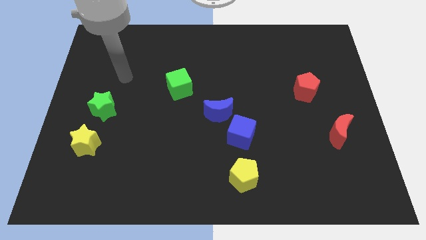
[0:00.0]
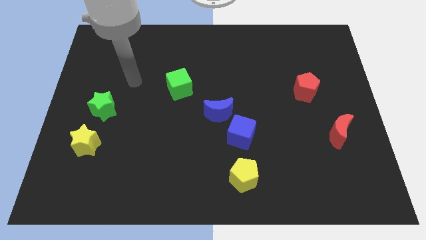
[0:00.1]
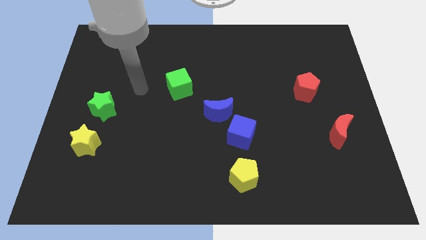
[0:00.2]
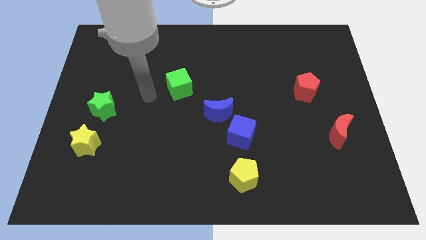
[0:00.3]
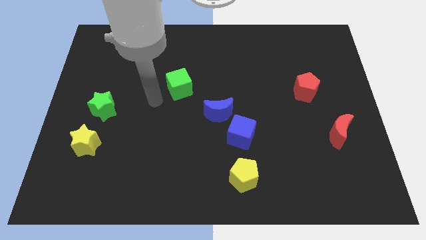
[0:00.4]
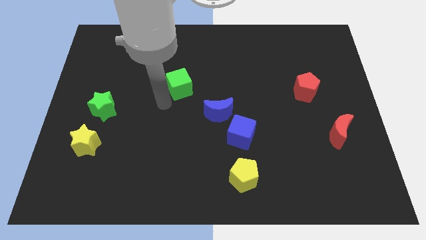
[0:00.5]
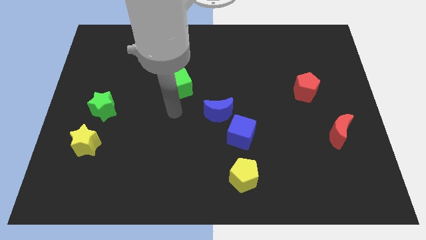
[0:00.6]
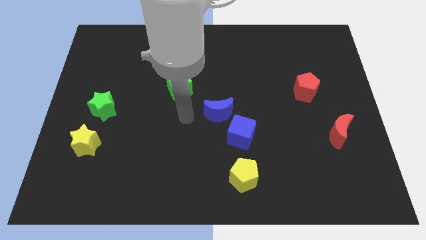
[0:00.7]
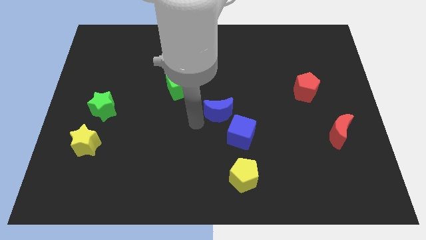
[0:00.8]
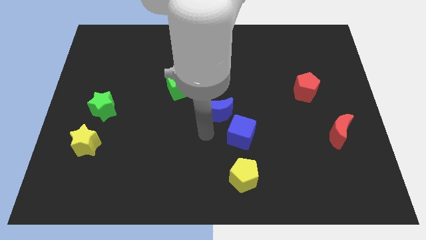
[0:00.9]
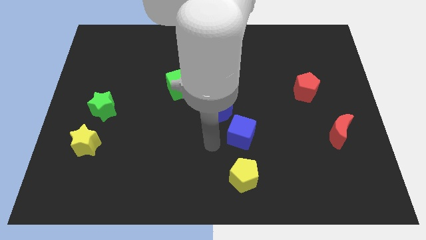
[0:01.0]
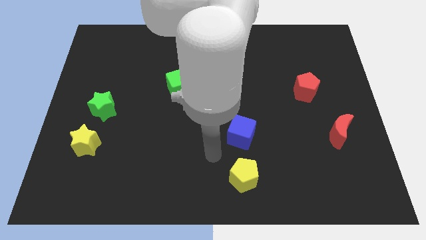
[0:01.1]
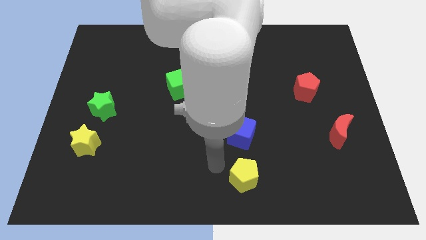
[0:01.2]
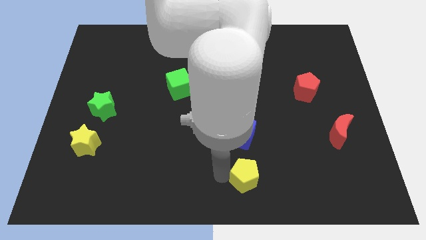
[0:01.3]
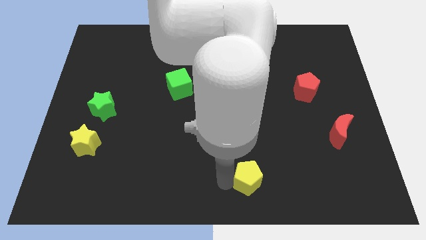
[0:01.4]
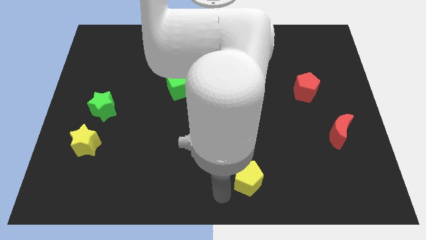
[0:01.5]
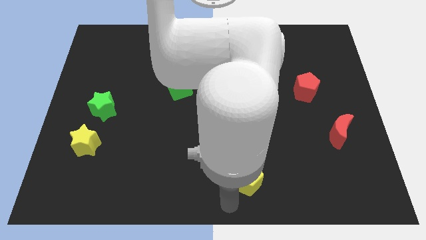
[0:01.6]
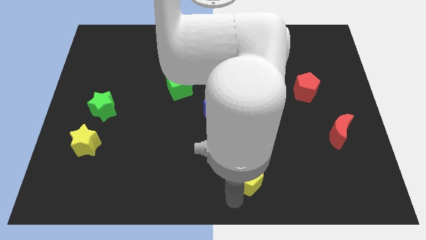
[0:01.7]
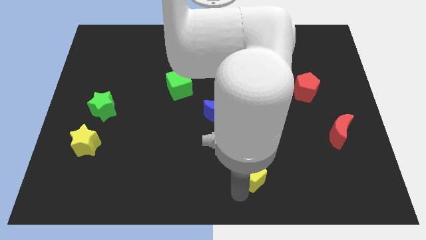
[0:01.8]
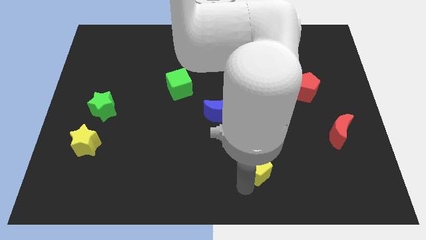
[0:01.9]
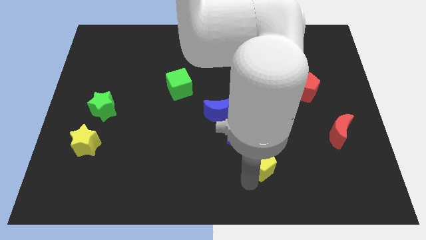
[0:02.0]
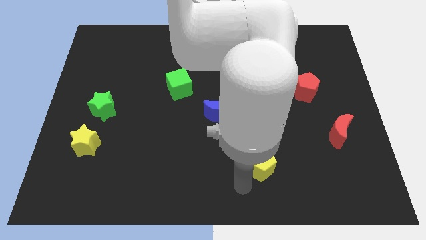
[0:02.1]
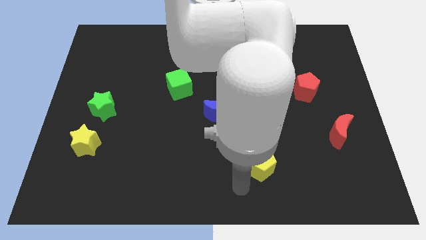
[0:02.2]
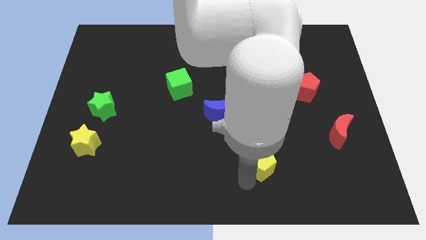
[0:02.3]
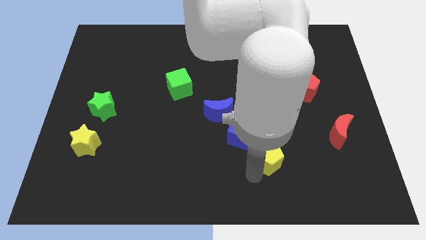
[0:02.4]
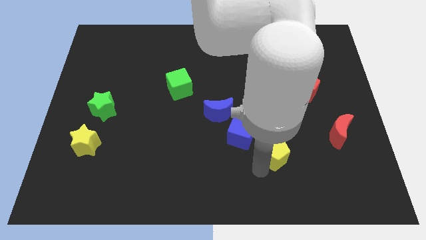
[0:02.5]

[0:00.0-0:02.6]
move the yellow pentagon slightly upwards and then right

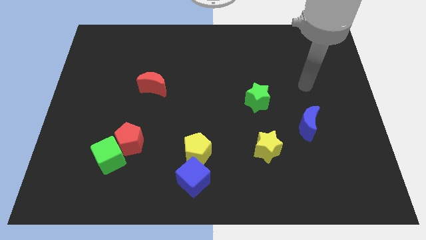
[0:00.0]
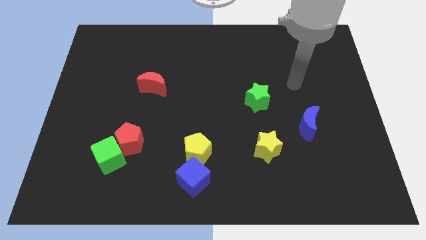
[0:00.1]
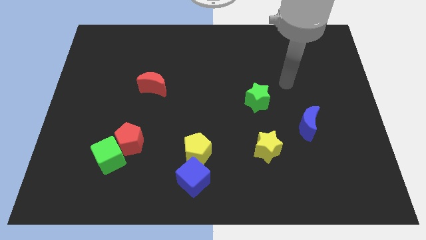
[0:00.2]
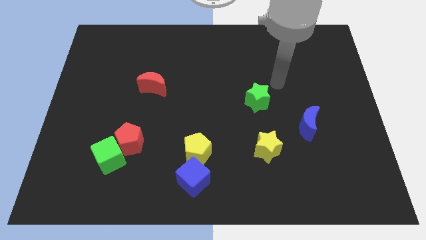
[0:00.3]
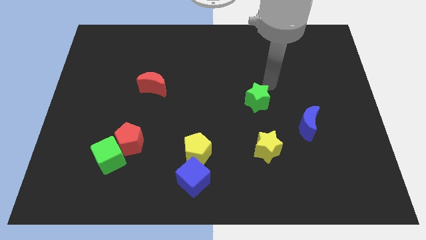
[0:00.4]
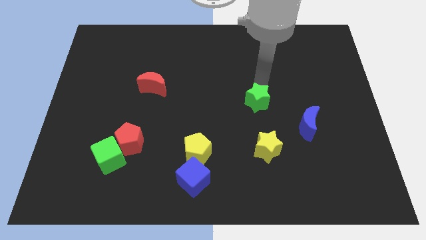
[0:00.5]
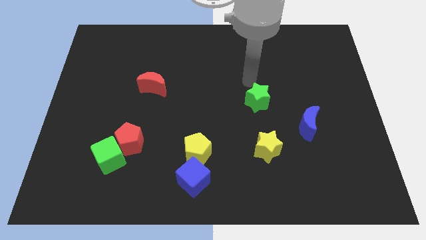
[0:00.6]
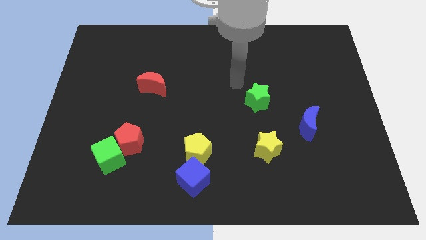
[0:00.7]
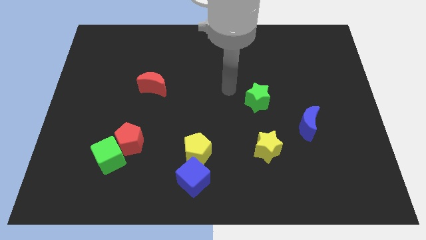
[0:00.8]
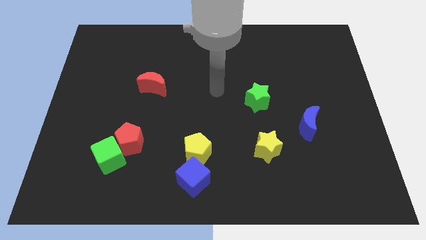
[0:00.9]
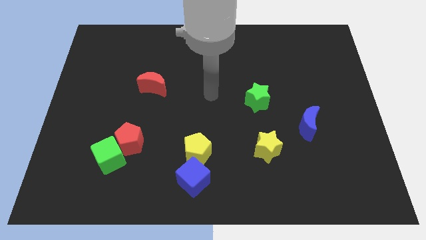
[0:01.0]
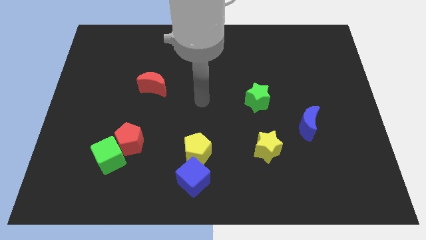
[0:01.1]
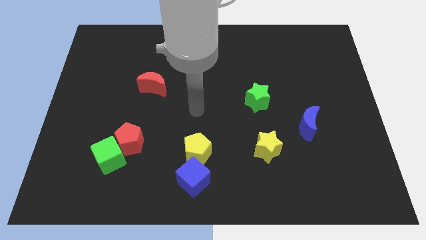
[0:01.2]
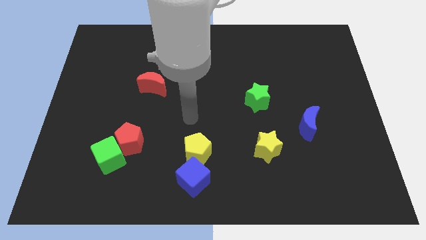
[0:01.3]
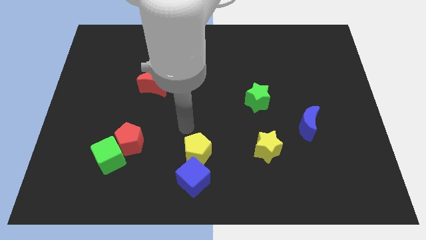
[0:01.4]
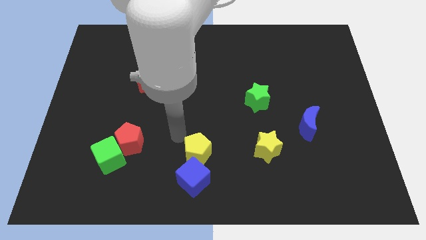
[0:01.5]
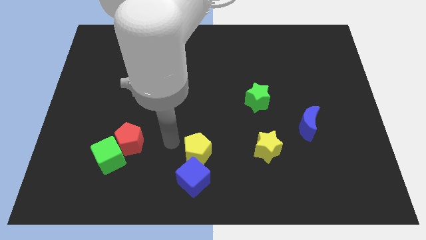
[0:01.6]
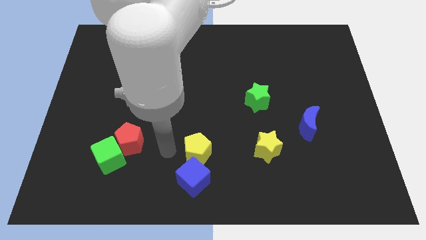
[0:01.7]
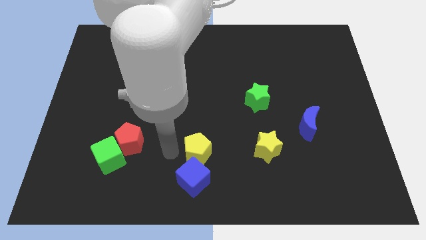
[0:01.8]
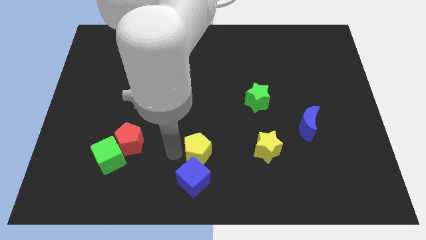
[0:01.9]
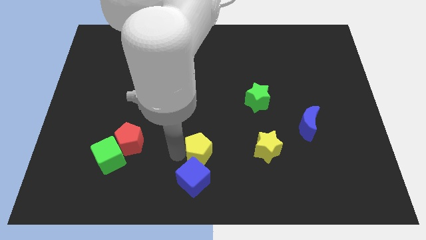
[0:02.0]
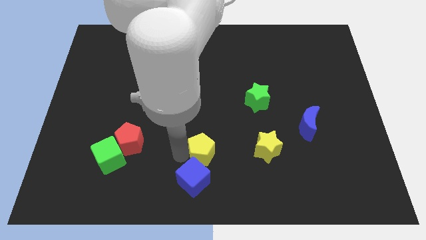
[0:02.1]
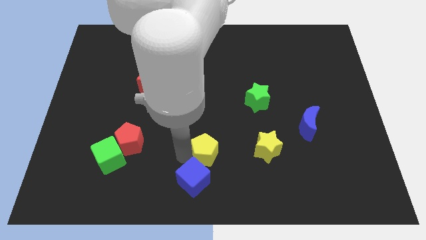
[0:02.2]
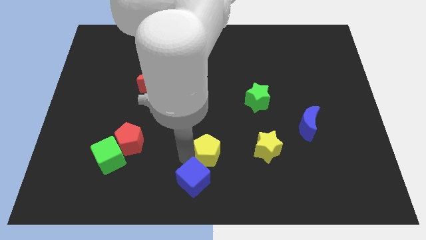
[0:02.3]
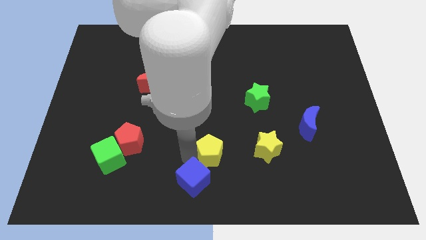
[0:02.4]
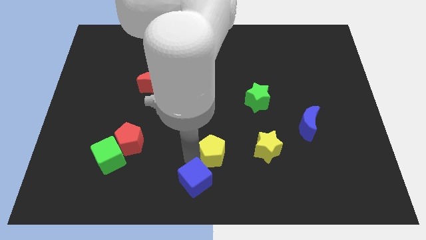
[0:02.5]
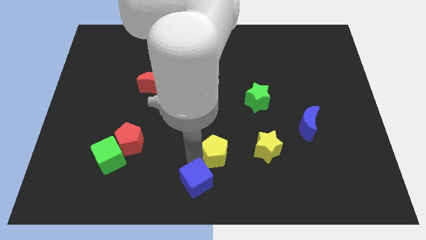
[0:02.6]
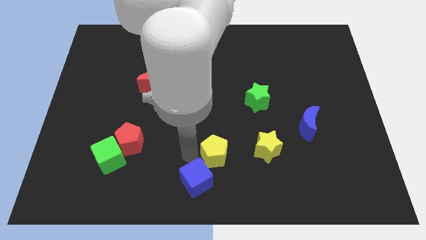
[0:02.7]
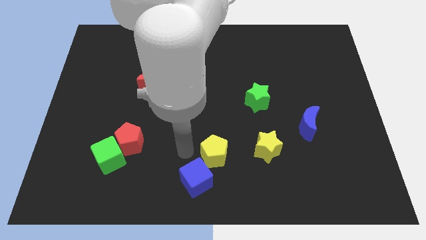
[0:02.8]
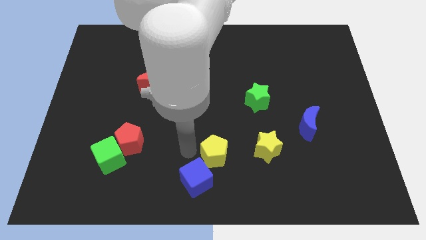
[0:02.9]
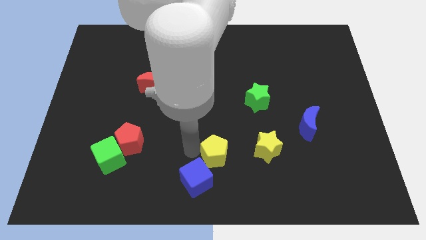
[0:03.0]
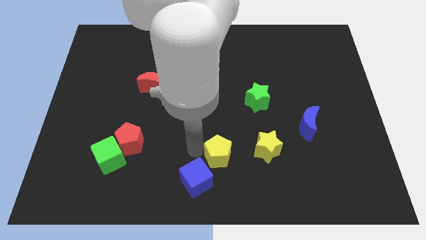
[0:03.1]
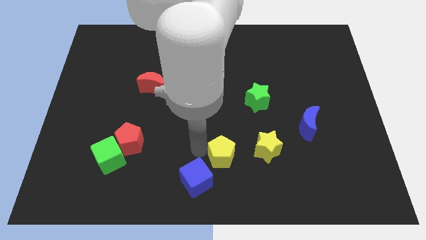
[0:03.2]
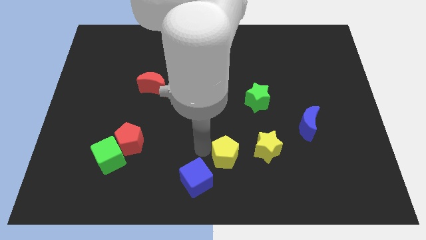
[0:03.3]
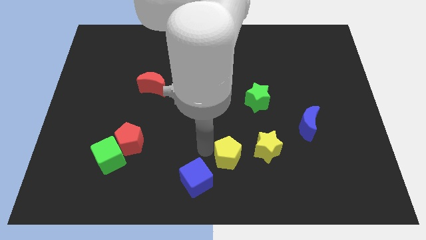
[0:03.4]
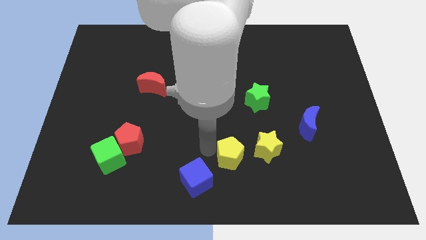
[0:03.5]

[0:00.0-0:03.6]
slightly slide the yellow pentagon right

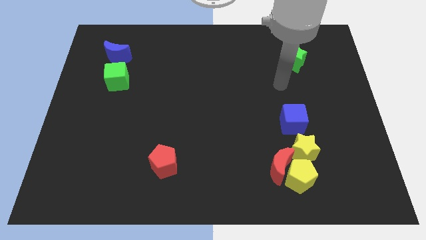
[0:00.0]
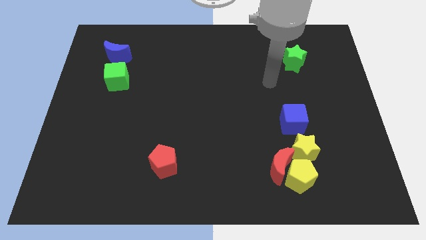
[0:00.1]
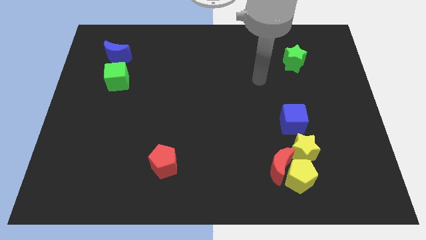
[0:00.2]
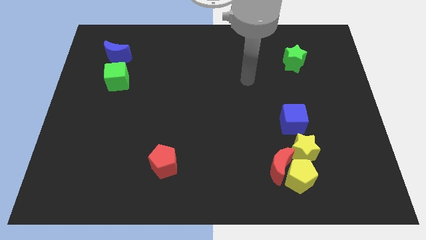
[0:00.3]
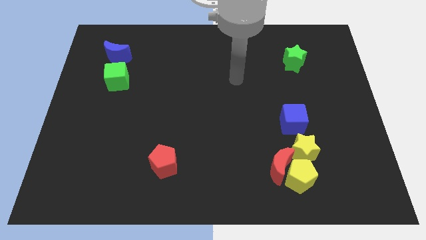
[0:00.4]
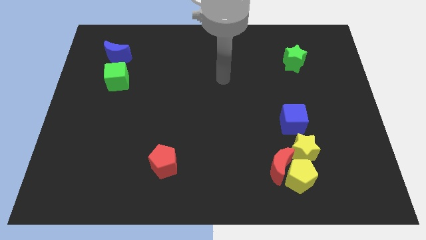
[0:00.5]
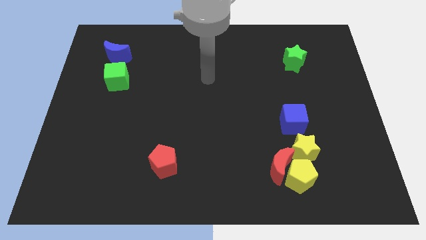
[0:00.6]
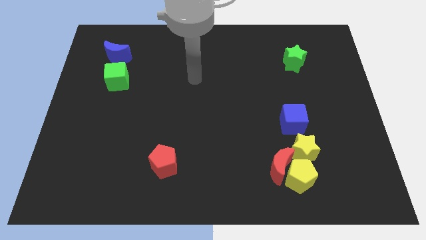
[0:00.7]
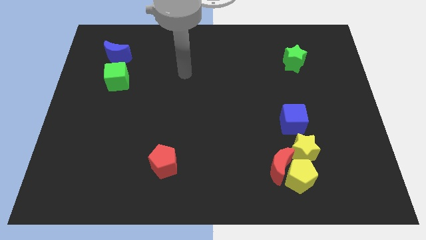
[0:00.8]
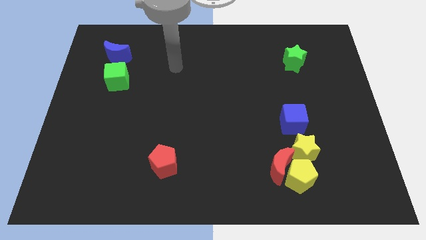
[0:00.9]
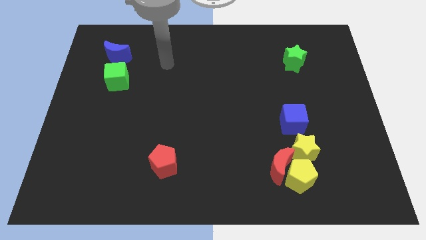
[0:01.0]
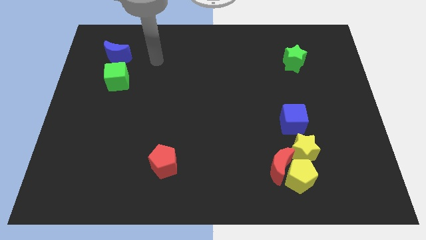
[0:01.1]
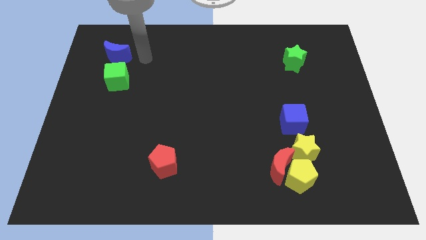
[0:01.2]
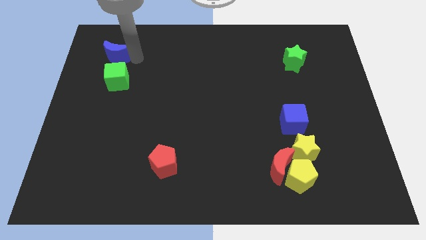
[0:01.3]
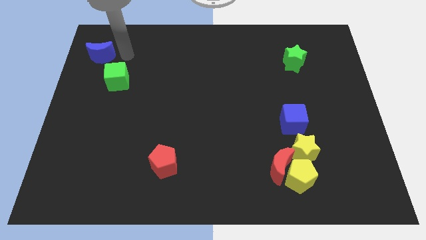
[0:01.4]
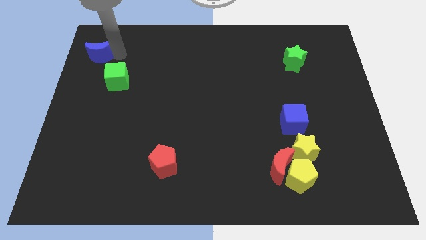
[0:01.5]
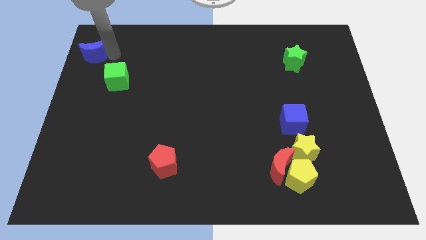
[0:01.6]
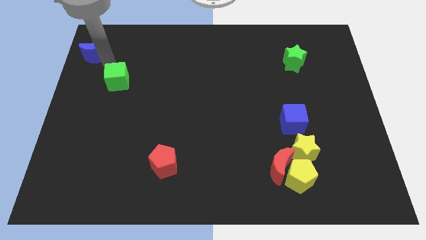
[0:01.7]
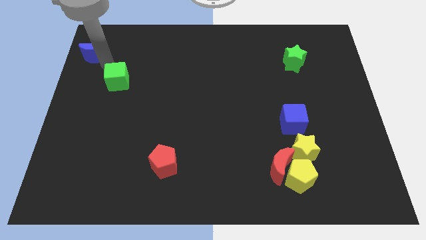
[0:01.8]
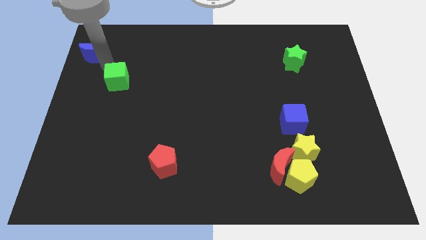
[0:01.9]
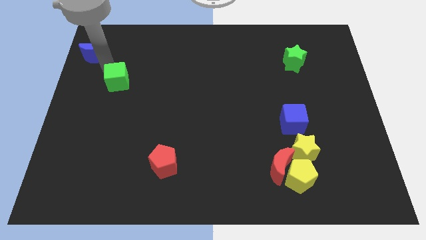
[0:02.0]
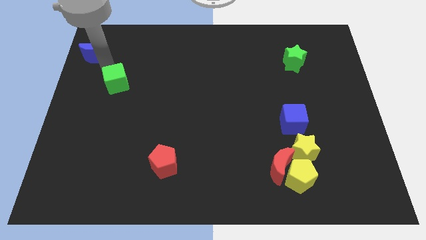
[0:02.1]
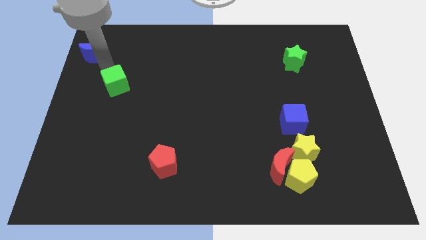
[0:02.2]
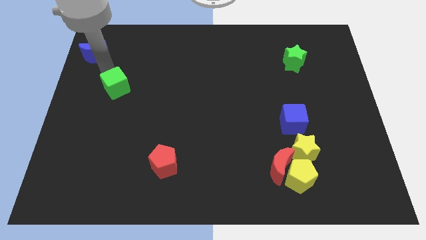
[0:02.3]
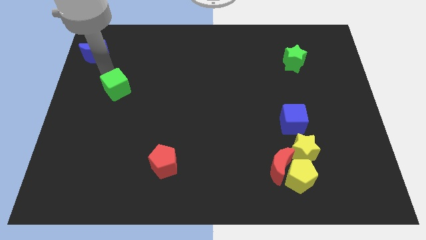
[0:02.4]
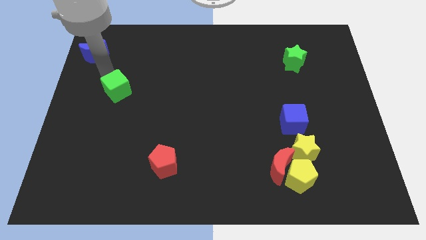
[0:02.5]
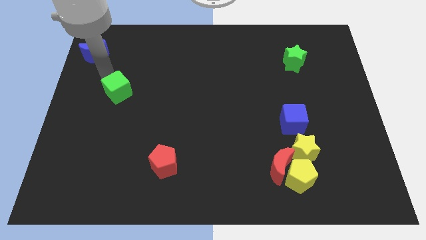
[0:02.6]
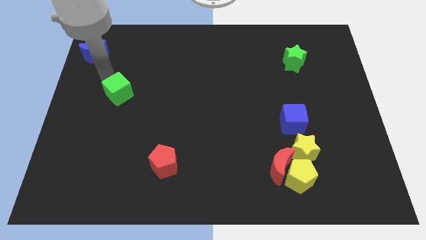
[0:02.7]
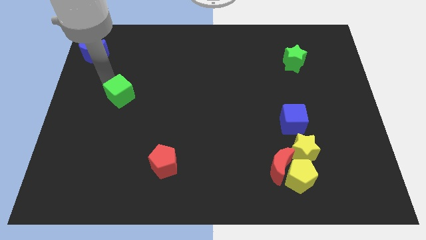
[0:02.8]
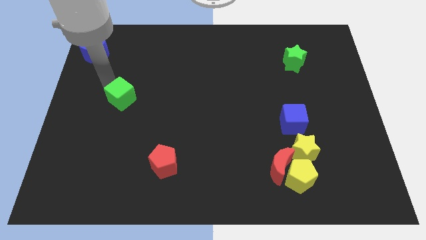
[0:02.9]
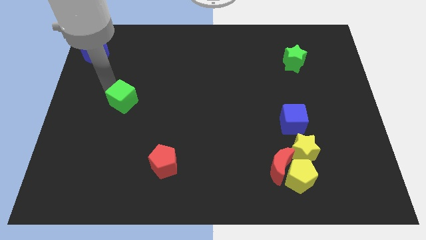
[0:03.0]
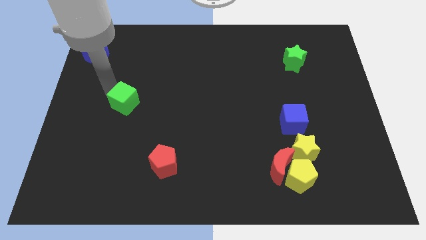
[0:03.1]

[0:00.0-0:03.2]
slightly push the green cube down and to the right diagonally
